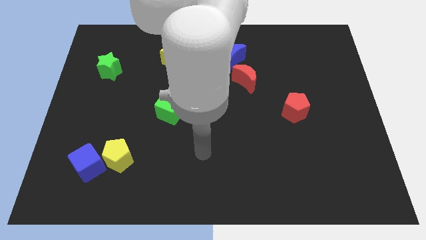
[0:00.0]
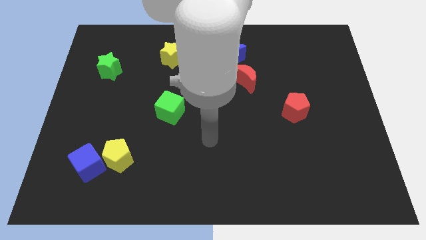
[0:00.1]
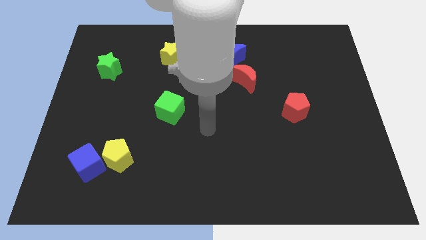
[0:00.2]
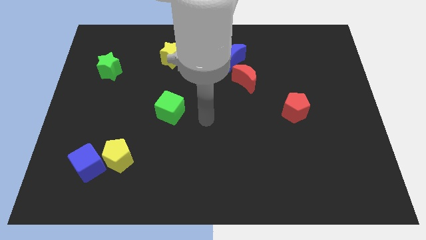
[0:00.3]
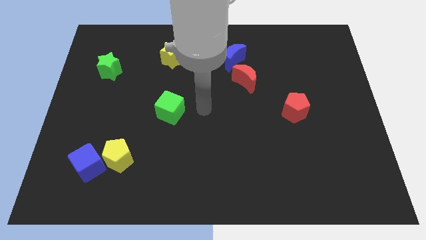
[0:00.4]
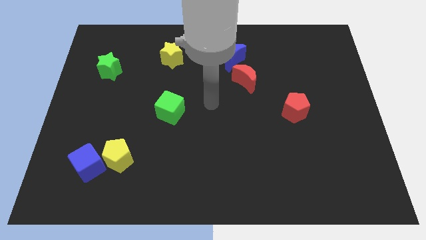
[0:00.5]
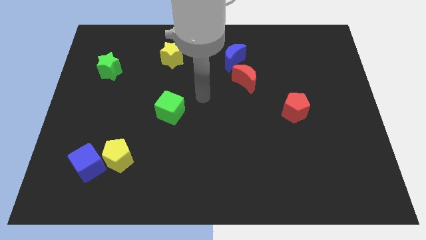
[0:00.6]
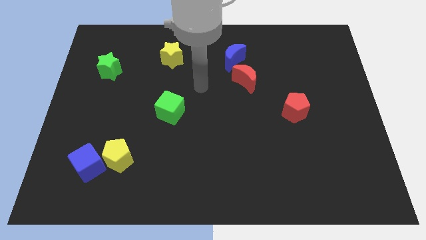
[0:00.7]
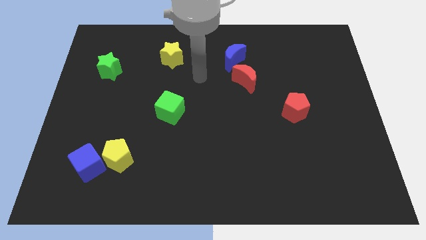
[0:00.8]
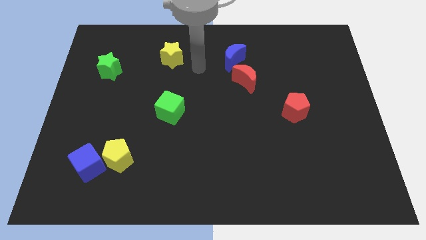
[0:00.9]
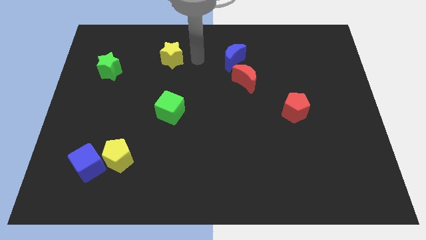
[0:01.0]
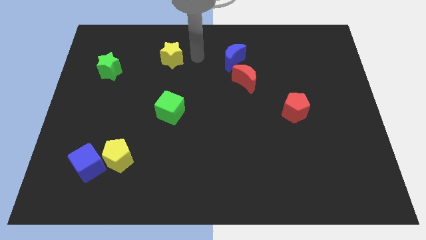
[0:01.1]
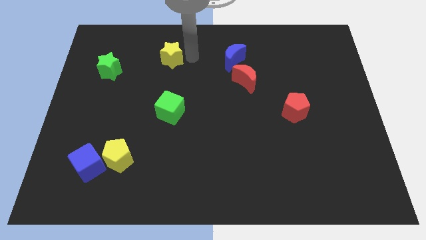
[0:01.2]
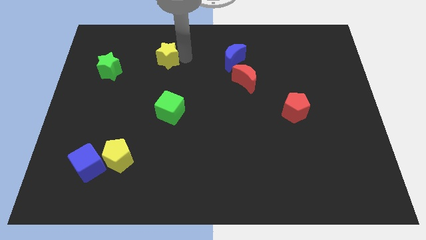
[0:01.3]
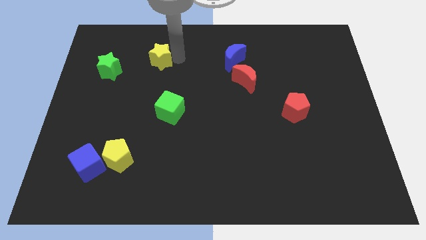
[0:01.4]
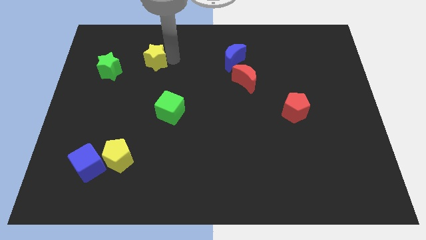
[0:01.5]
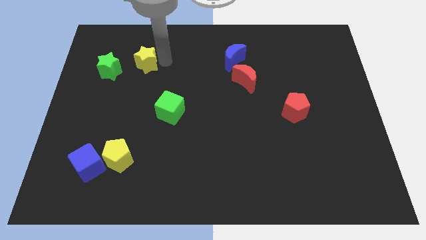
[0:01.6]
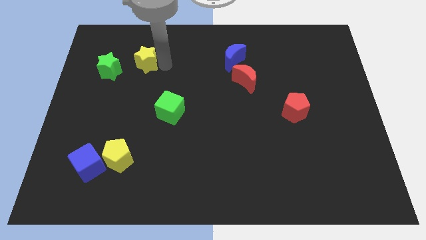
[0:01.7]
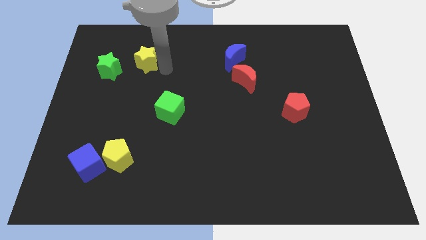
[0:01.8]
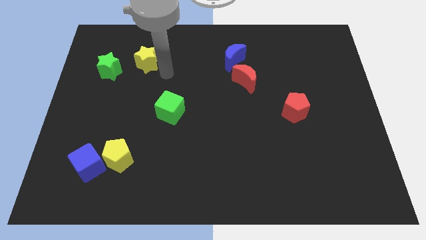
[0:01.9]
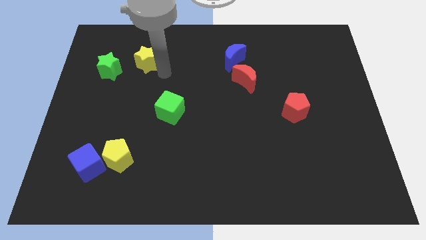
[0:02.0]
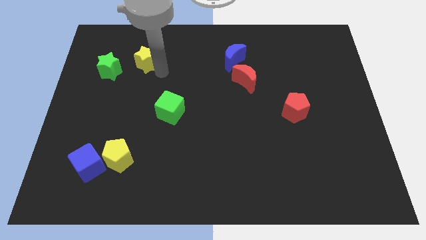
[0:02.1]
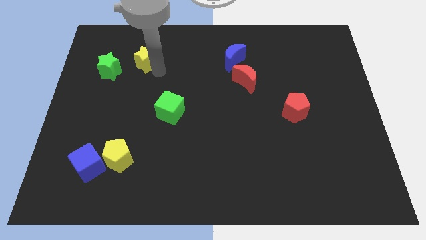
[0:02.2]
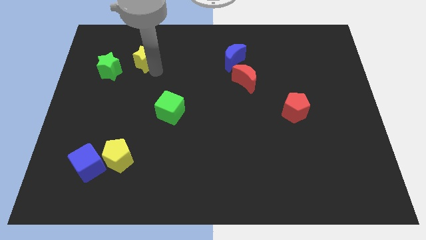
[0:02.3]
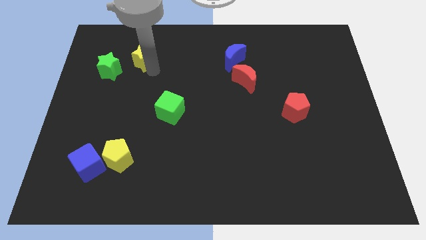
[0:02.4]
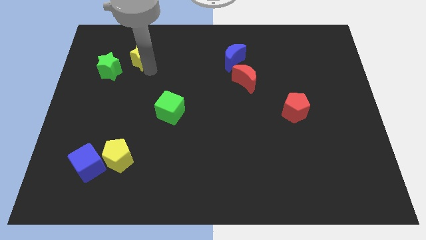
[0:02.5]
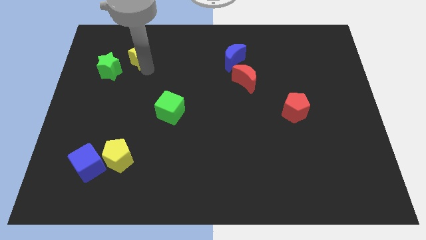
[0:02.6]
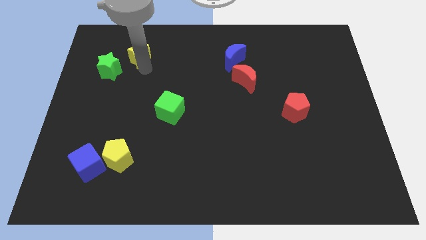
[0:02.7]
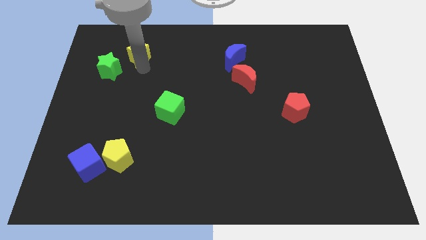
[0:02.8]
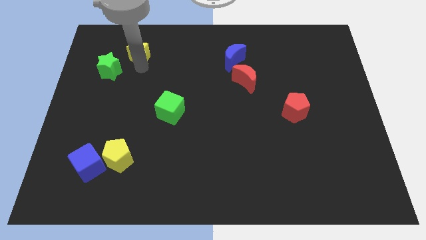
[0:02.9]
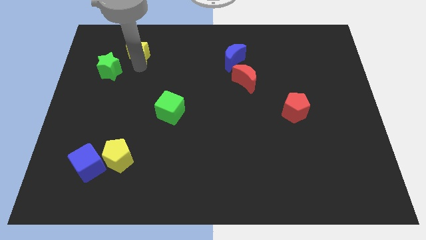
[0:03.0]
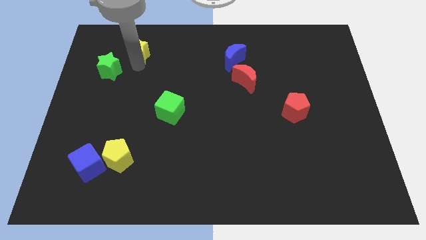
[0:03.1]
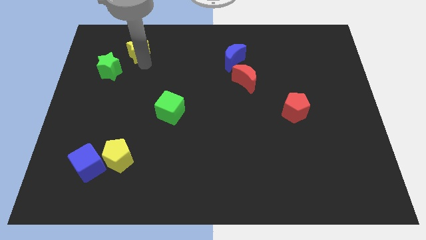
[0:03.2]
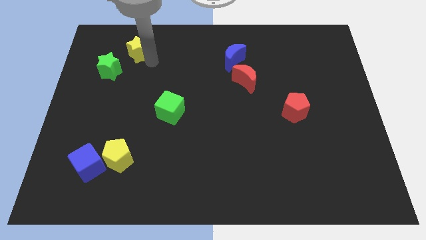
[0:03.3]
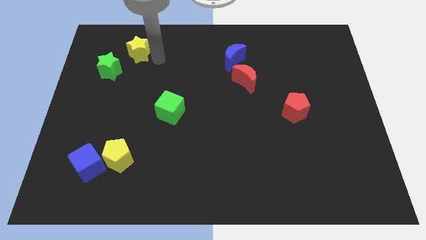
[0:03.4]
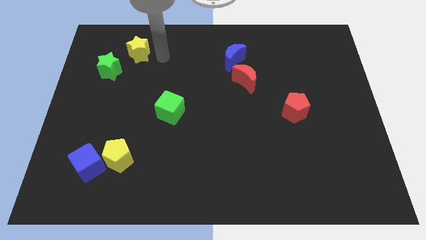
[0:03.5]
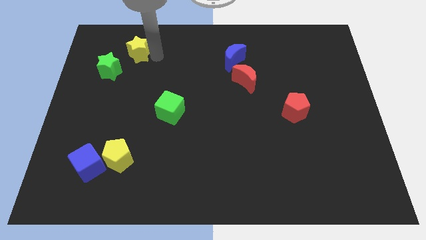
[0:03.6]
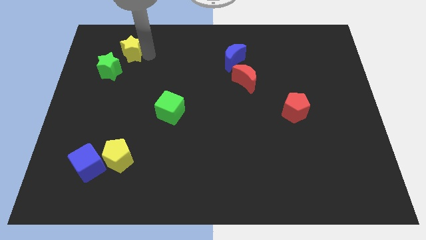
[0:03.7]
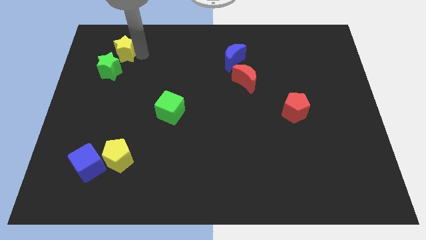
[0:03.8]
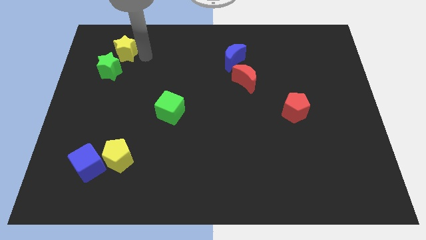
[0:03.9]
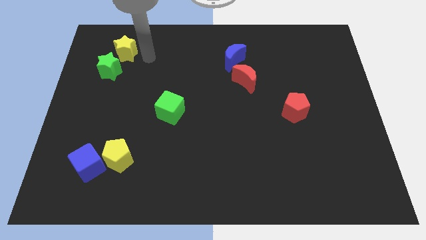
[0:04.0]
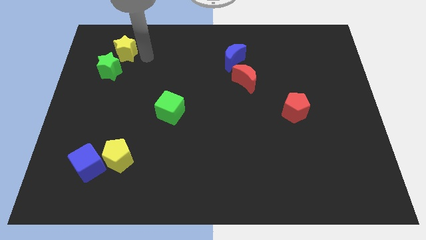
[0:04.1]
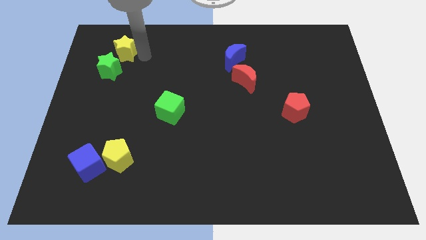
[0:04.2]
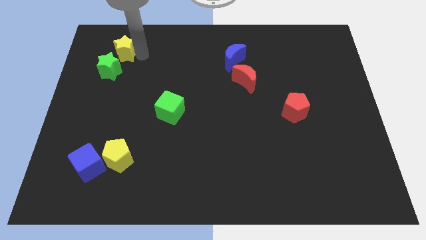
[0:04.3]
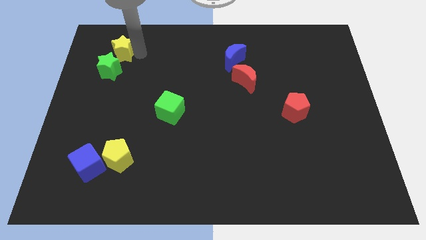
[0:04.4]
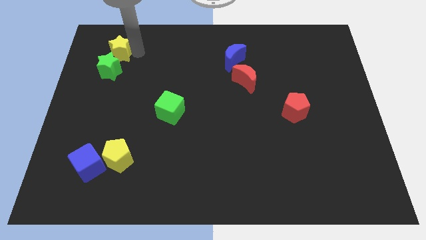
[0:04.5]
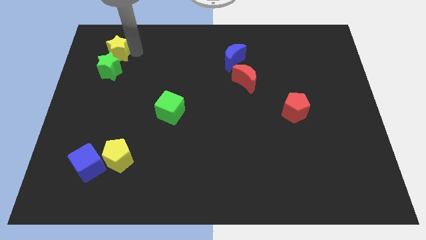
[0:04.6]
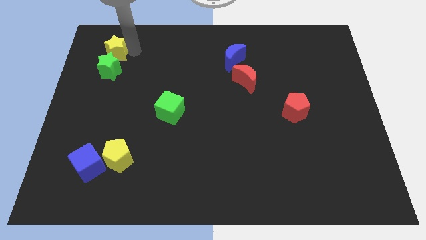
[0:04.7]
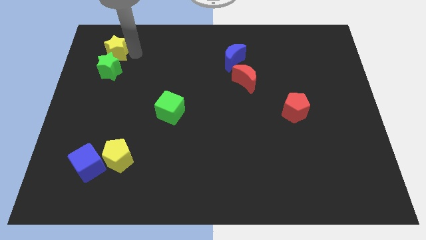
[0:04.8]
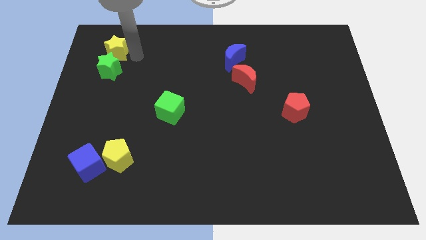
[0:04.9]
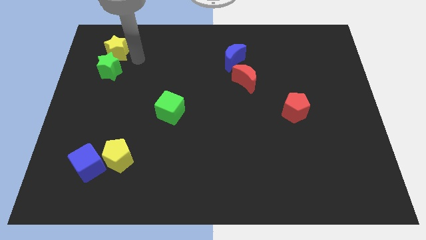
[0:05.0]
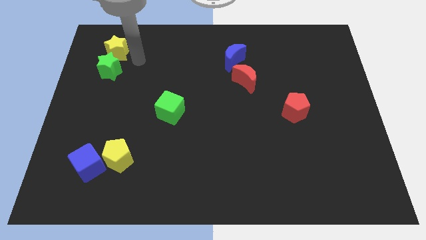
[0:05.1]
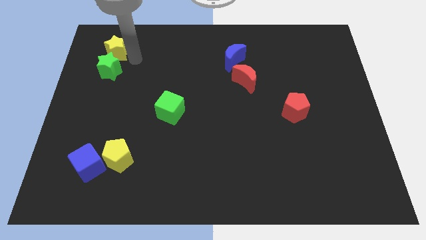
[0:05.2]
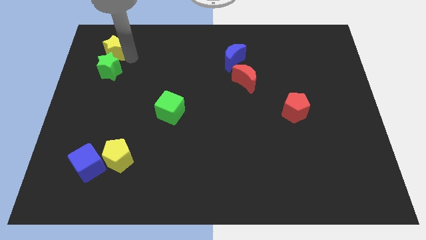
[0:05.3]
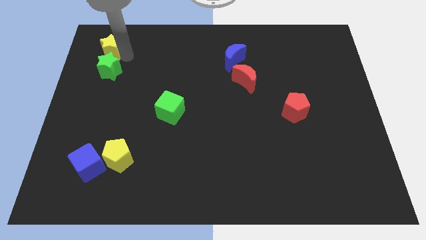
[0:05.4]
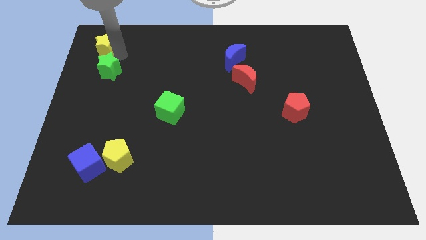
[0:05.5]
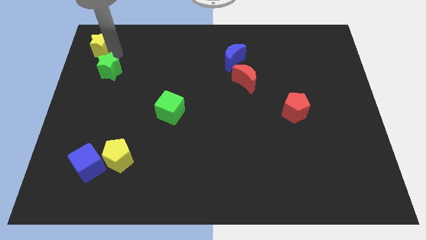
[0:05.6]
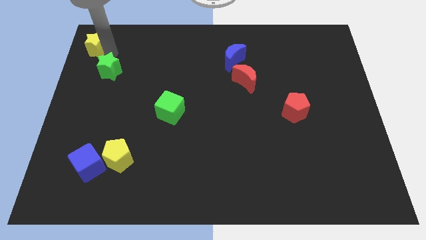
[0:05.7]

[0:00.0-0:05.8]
put the yellow star to the top left corner
